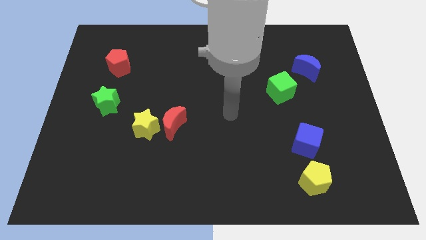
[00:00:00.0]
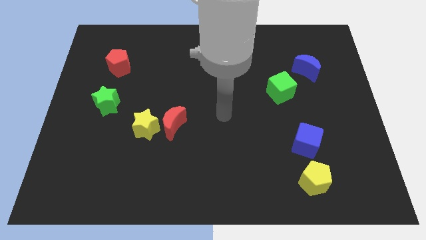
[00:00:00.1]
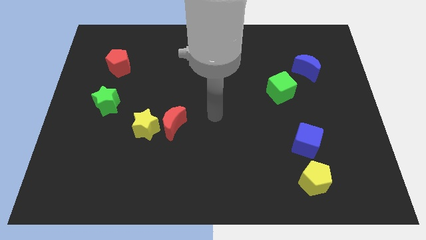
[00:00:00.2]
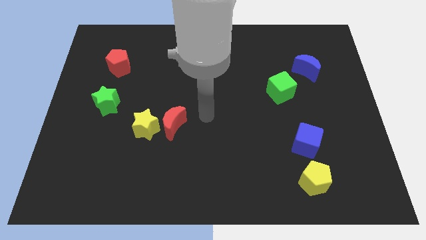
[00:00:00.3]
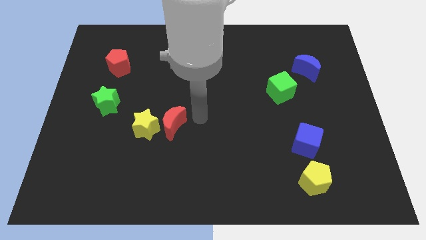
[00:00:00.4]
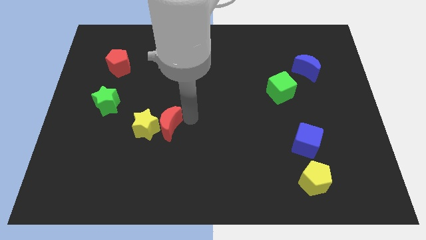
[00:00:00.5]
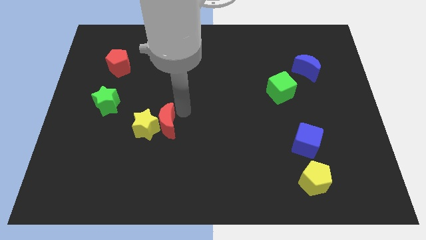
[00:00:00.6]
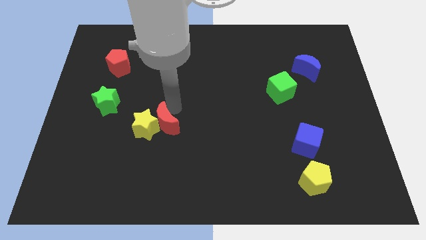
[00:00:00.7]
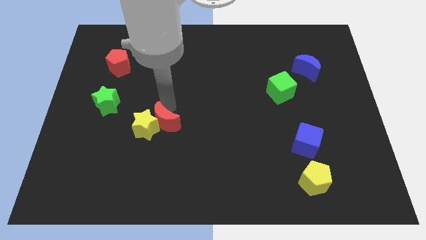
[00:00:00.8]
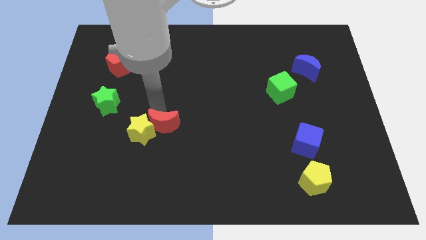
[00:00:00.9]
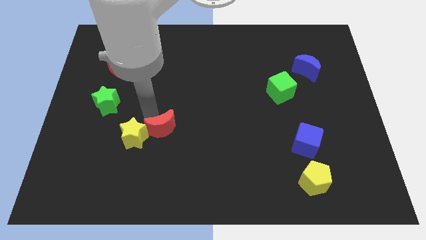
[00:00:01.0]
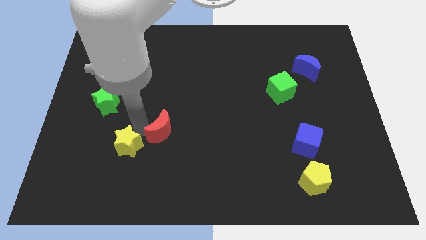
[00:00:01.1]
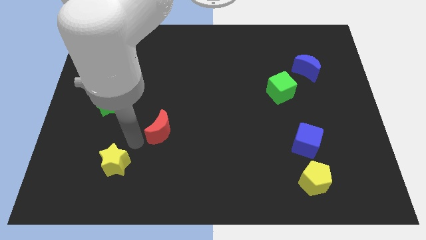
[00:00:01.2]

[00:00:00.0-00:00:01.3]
move the red moon away from the yellow star

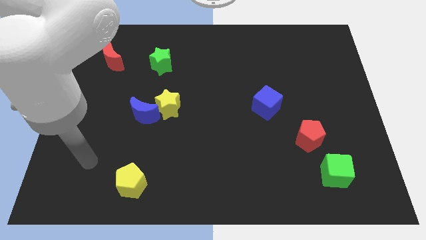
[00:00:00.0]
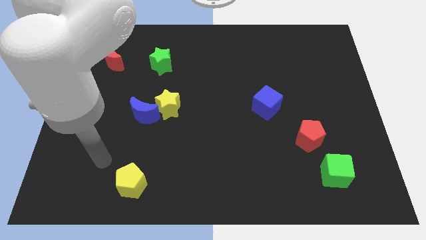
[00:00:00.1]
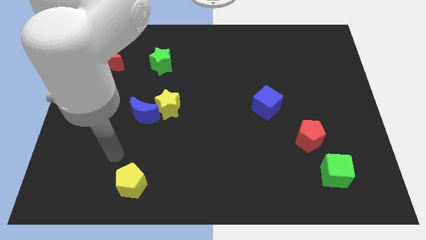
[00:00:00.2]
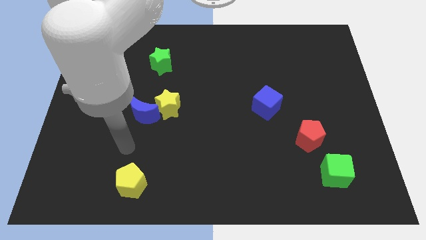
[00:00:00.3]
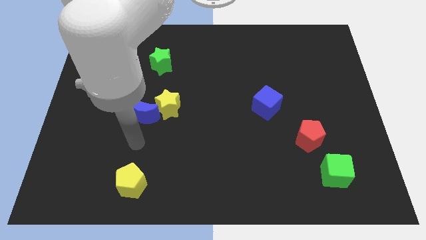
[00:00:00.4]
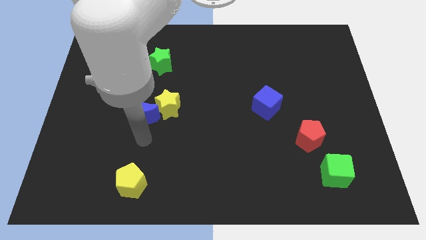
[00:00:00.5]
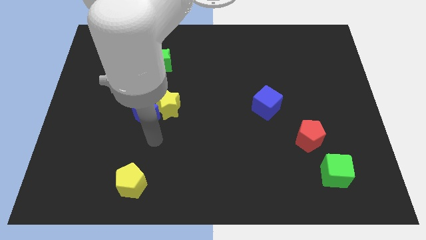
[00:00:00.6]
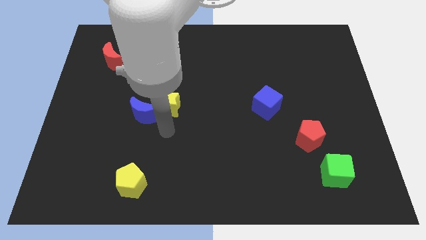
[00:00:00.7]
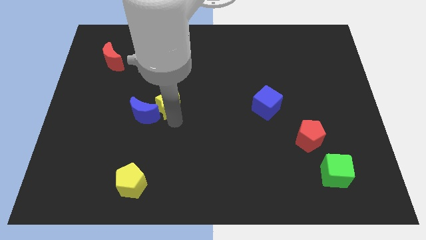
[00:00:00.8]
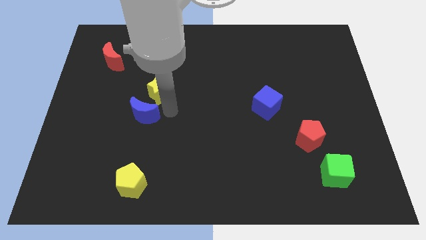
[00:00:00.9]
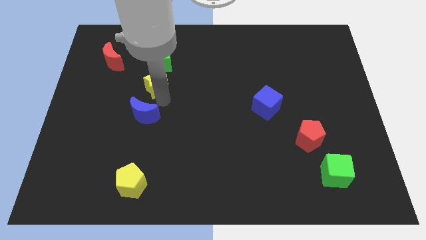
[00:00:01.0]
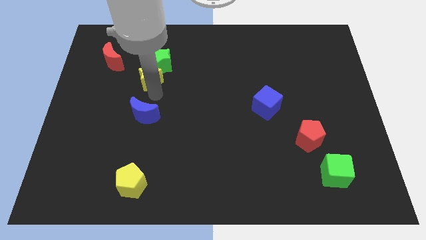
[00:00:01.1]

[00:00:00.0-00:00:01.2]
separate the blue moon from the yellow star

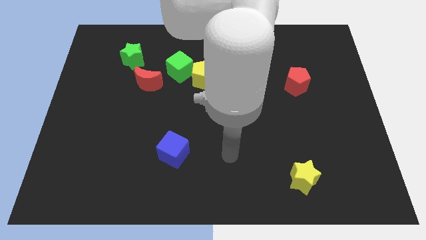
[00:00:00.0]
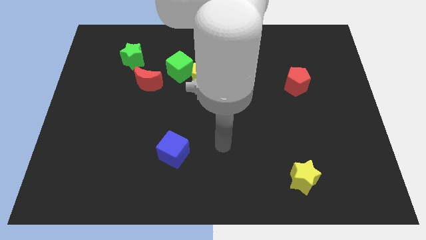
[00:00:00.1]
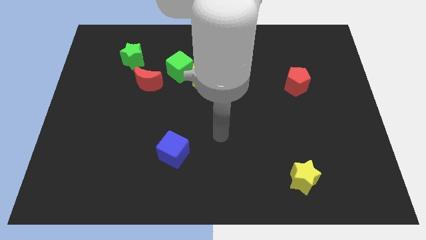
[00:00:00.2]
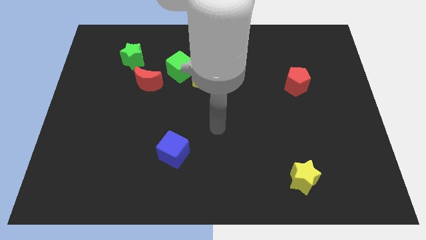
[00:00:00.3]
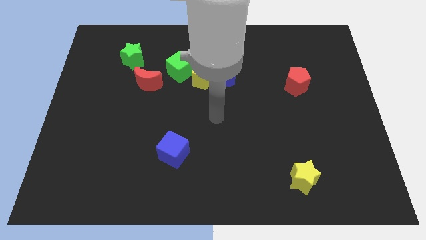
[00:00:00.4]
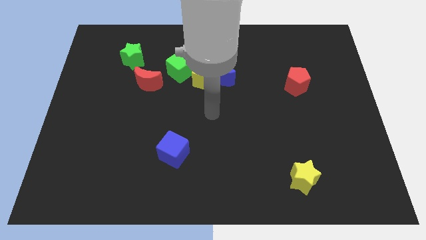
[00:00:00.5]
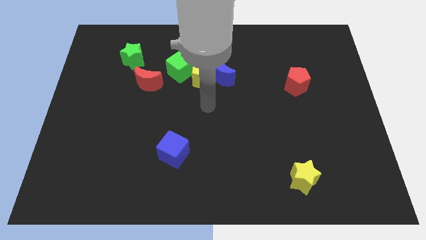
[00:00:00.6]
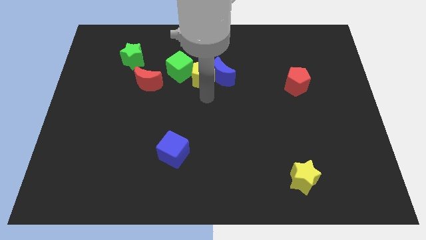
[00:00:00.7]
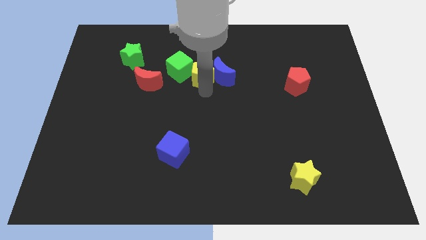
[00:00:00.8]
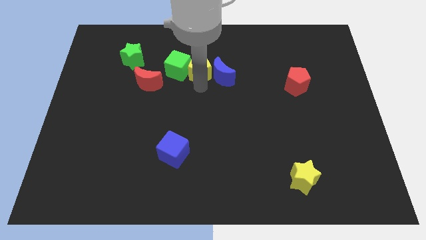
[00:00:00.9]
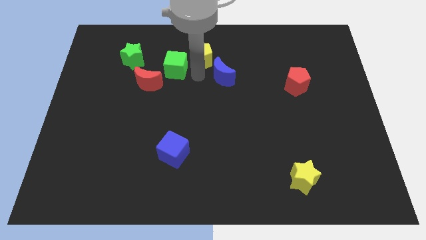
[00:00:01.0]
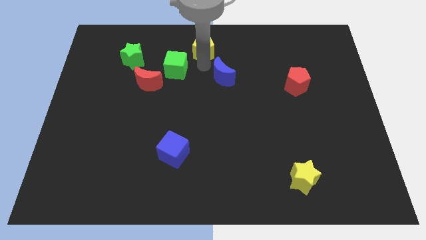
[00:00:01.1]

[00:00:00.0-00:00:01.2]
pull the blue moon apart from the yellow pentagon

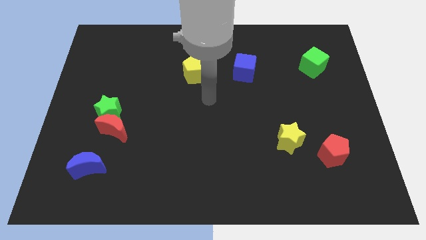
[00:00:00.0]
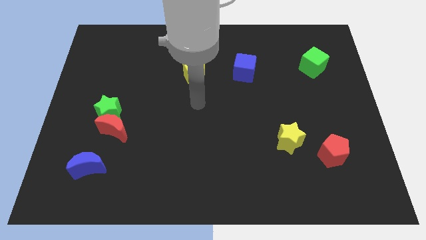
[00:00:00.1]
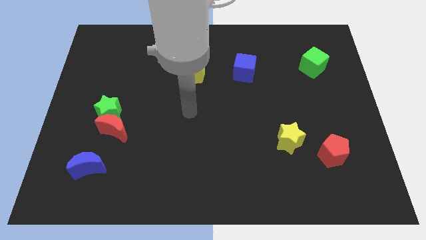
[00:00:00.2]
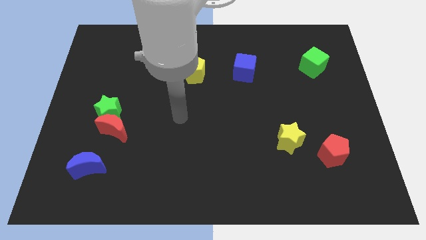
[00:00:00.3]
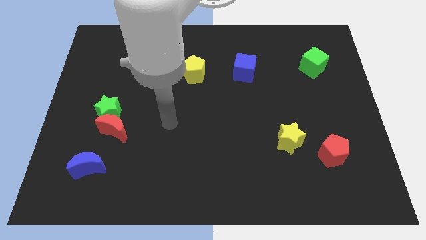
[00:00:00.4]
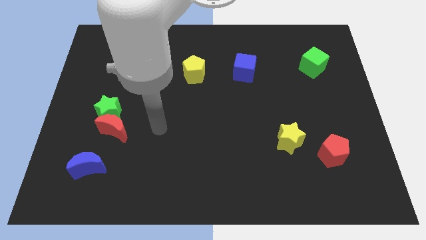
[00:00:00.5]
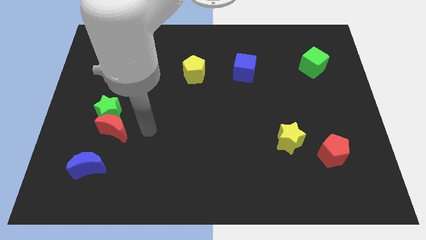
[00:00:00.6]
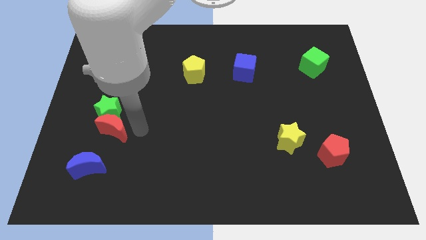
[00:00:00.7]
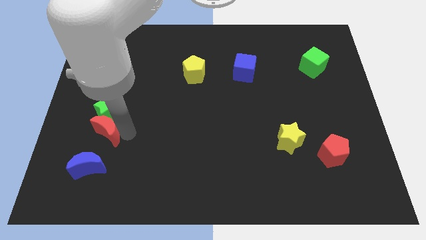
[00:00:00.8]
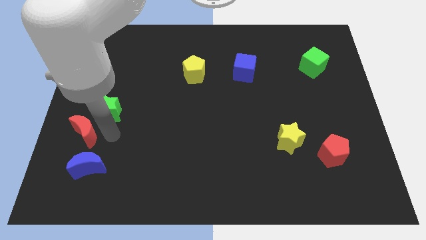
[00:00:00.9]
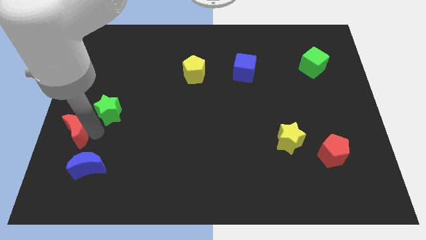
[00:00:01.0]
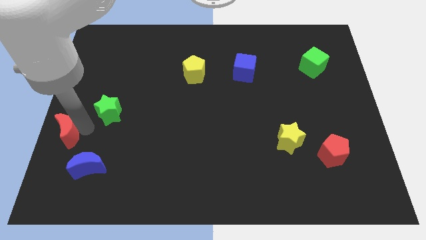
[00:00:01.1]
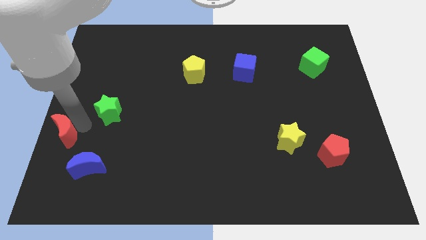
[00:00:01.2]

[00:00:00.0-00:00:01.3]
move the green star away from the red moon

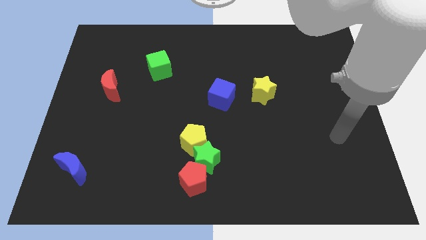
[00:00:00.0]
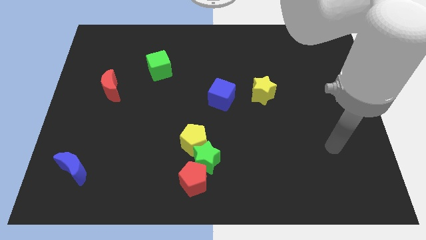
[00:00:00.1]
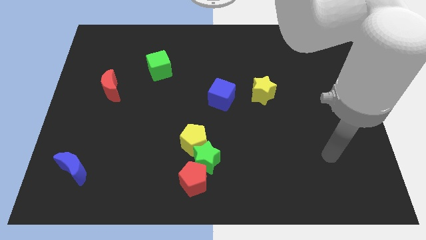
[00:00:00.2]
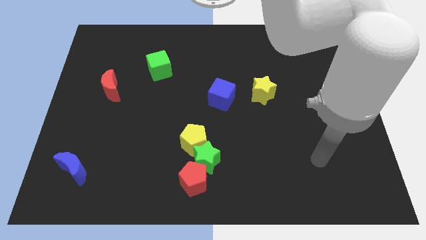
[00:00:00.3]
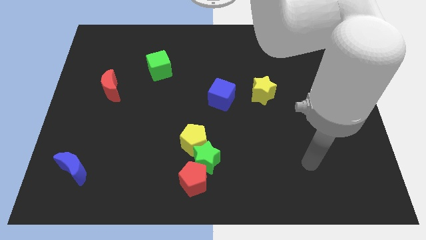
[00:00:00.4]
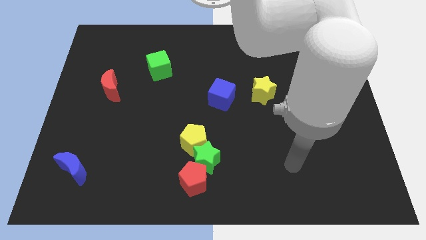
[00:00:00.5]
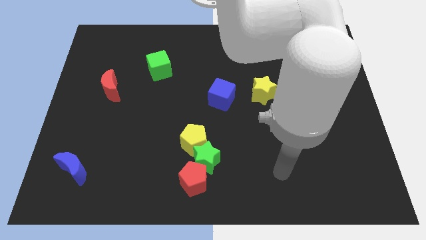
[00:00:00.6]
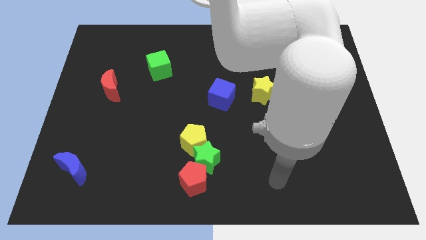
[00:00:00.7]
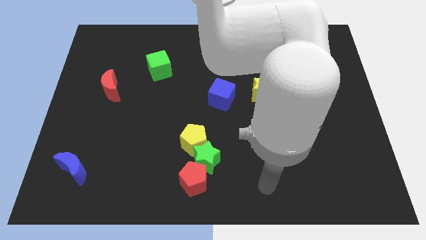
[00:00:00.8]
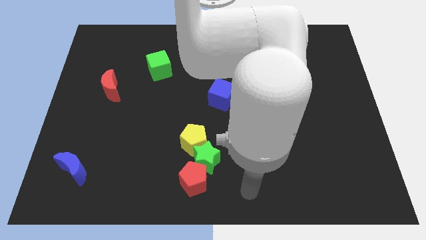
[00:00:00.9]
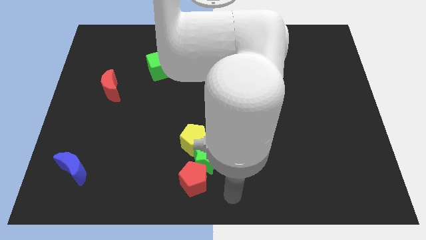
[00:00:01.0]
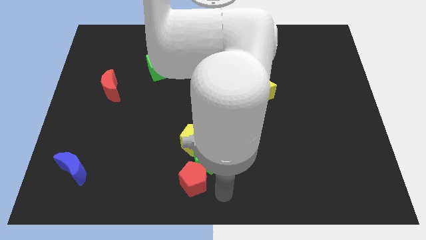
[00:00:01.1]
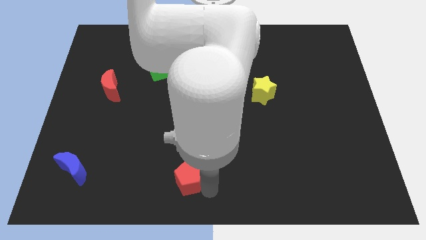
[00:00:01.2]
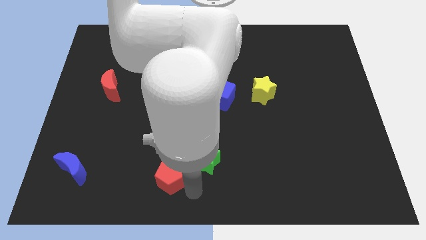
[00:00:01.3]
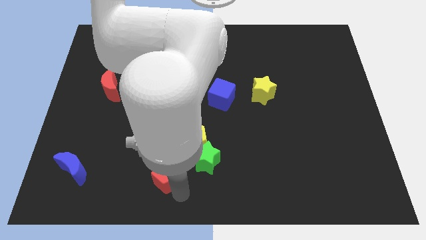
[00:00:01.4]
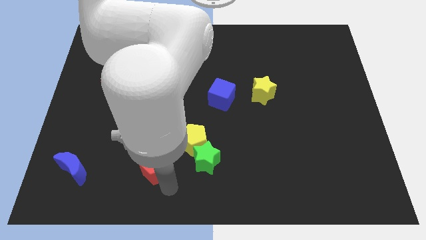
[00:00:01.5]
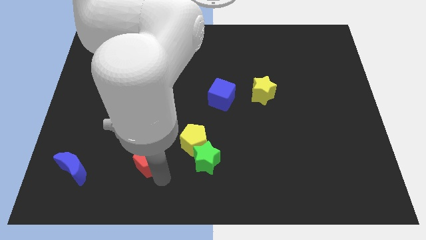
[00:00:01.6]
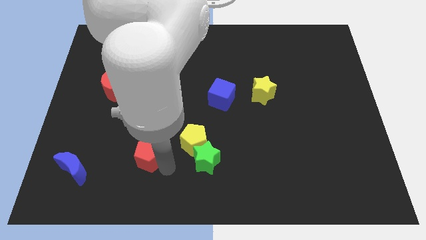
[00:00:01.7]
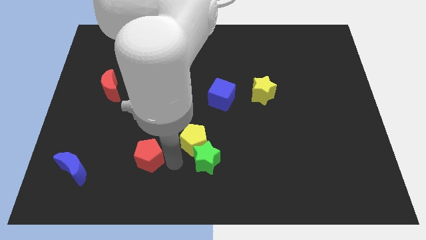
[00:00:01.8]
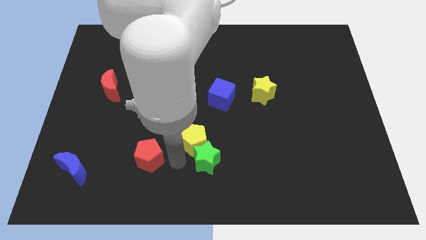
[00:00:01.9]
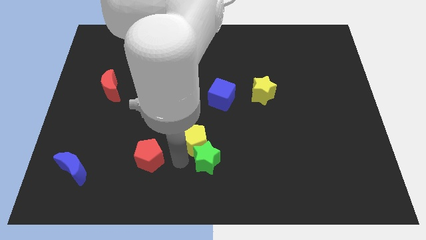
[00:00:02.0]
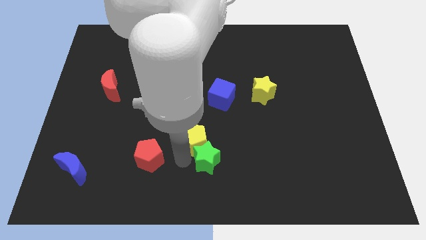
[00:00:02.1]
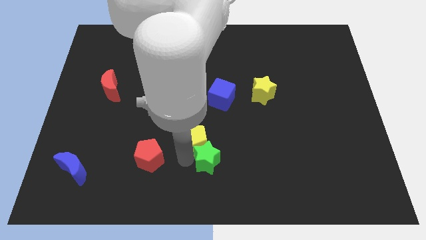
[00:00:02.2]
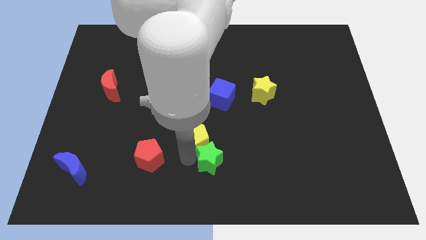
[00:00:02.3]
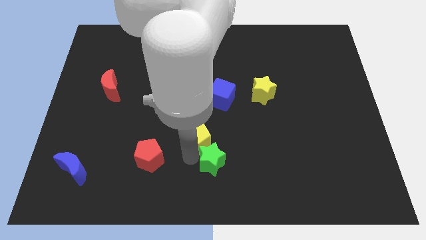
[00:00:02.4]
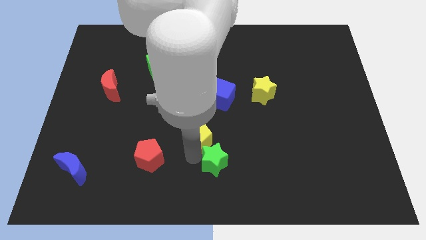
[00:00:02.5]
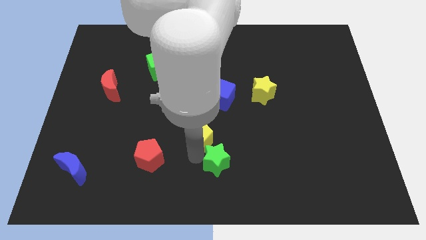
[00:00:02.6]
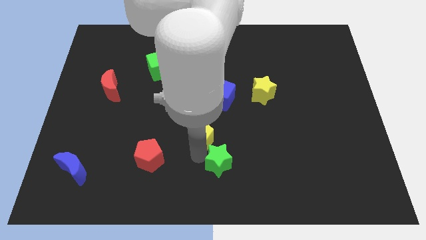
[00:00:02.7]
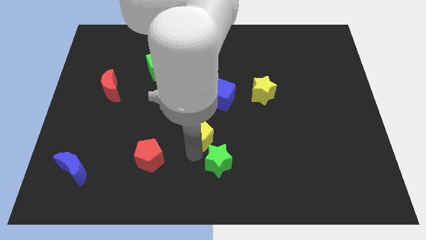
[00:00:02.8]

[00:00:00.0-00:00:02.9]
separate the green star from the red pentagon and yellow pentagon

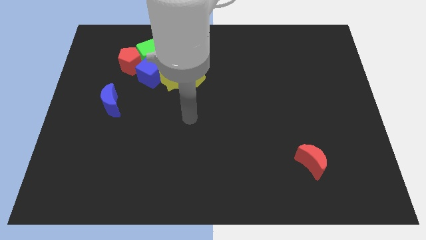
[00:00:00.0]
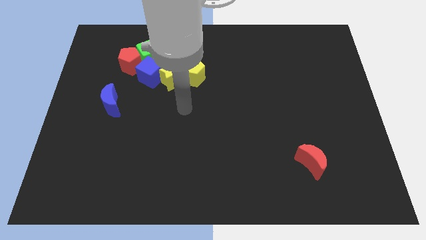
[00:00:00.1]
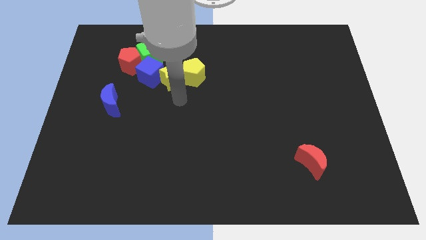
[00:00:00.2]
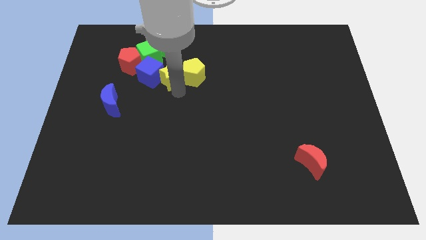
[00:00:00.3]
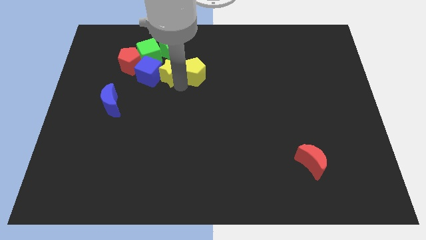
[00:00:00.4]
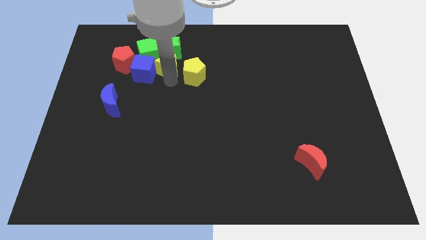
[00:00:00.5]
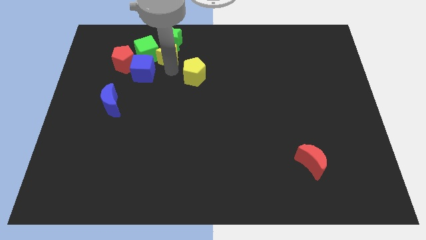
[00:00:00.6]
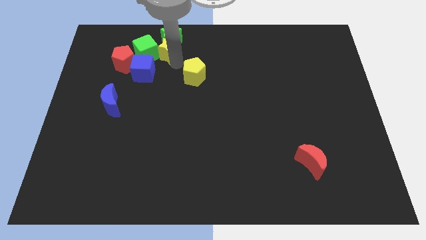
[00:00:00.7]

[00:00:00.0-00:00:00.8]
separate the yellow pentagon from the yellow star

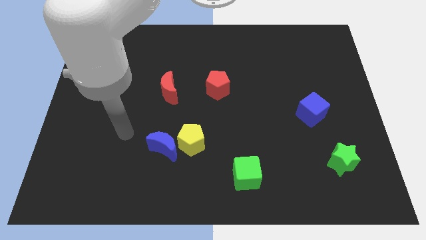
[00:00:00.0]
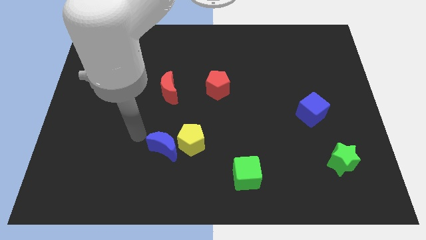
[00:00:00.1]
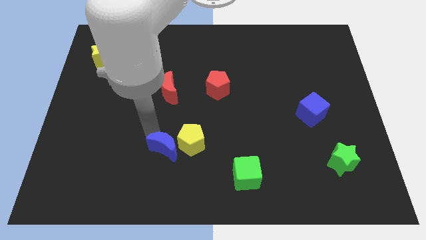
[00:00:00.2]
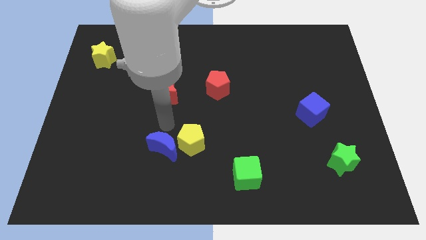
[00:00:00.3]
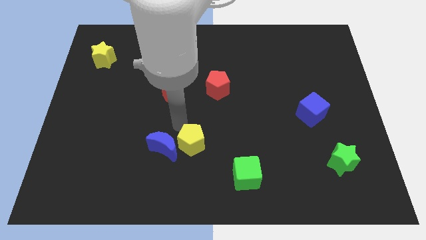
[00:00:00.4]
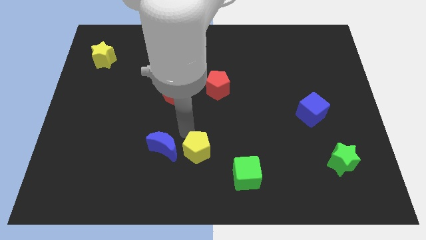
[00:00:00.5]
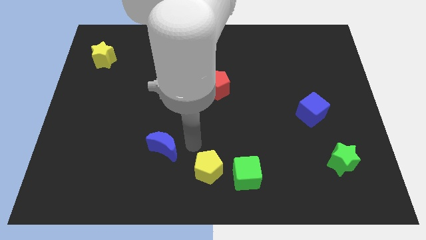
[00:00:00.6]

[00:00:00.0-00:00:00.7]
separate the blue moon from the yellow pentagon
